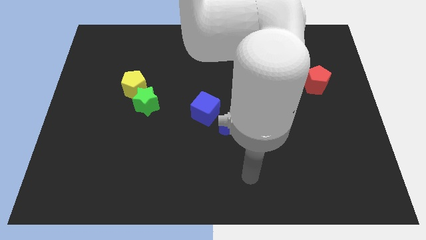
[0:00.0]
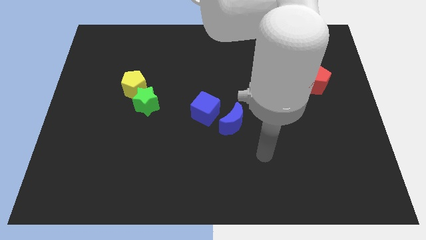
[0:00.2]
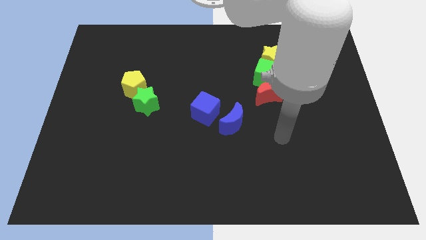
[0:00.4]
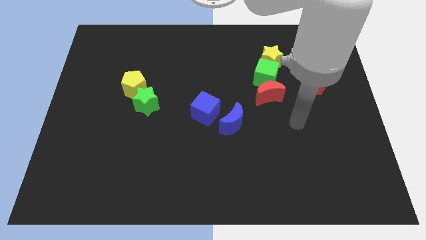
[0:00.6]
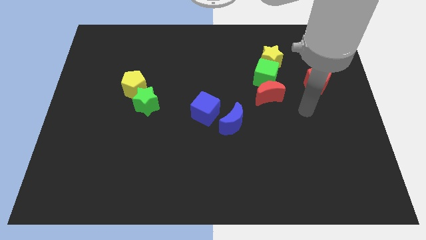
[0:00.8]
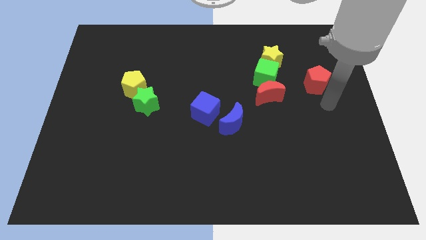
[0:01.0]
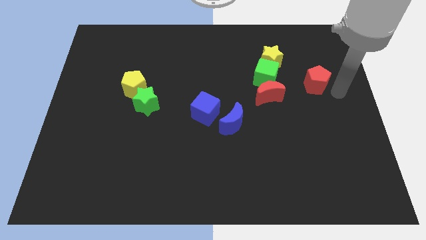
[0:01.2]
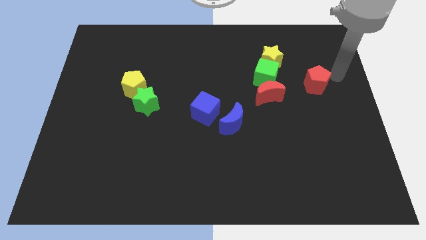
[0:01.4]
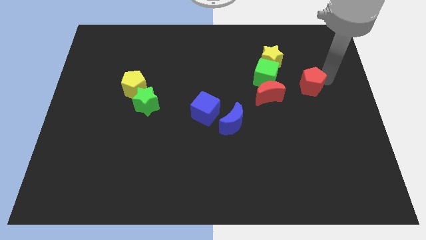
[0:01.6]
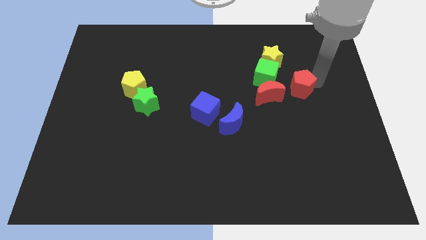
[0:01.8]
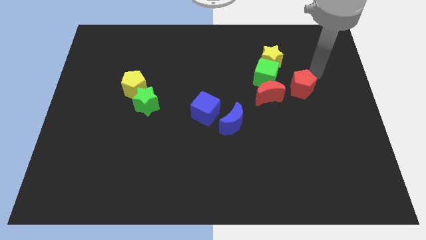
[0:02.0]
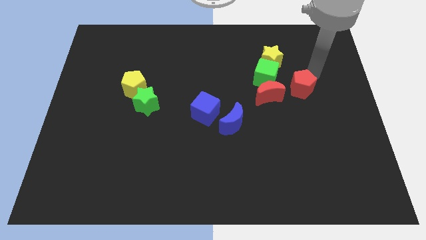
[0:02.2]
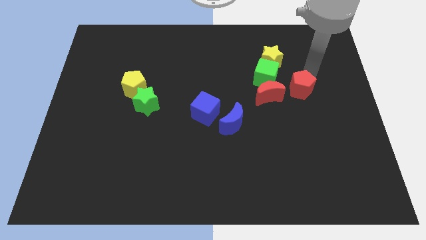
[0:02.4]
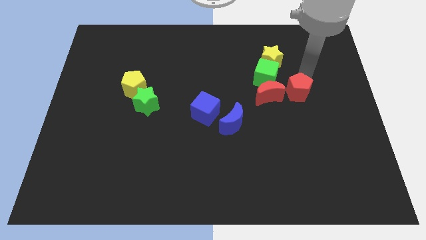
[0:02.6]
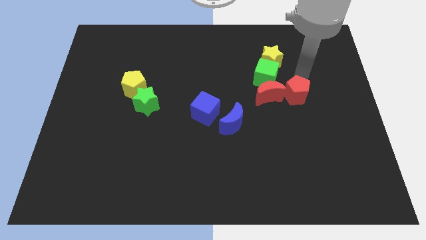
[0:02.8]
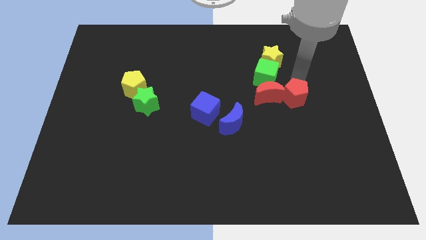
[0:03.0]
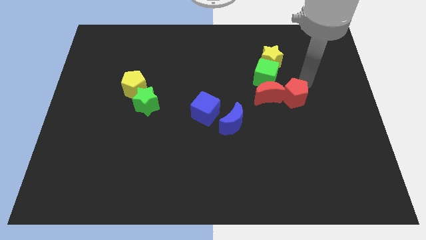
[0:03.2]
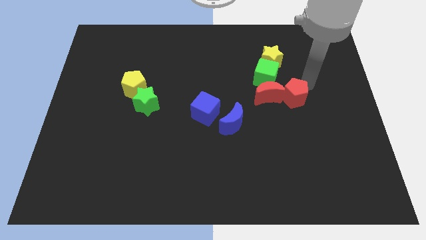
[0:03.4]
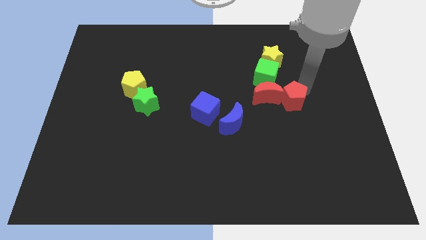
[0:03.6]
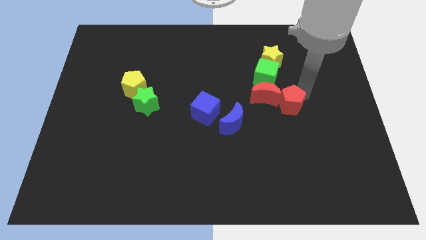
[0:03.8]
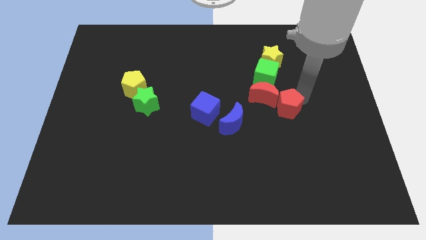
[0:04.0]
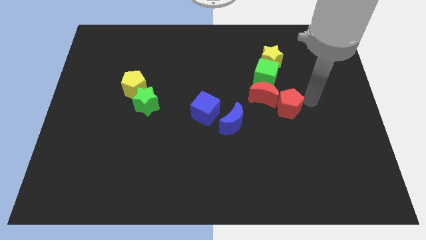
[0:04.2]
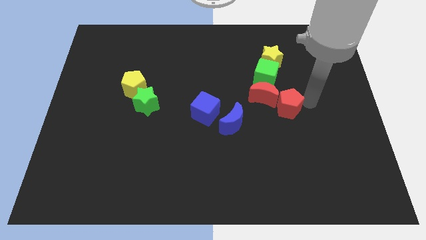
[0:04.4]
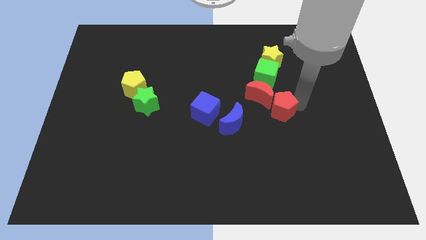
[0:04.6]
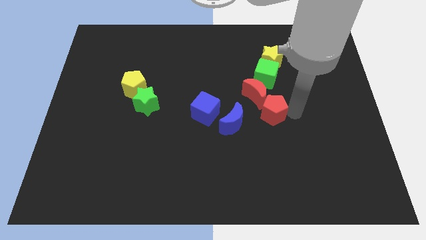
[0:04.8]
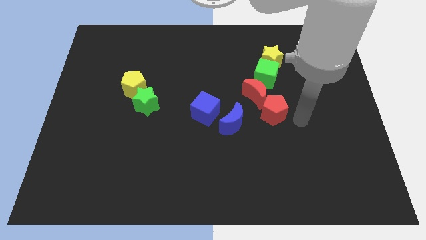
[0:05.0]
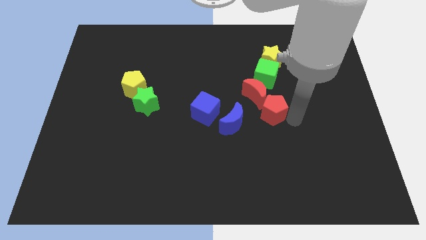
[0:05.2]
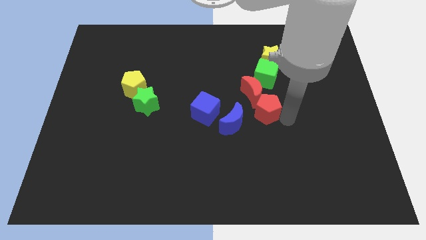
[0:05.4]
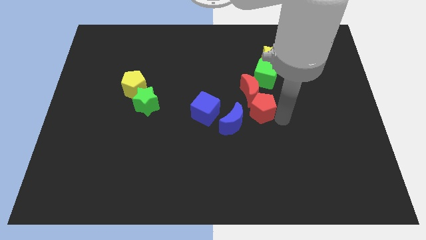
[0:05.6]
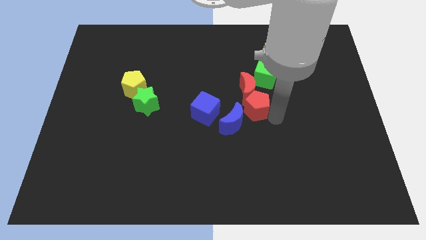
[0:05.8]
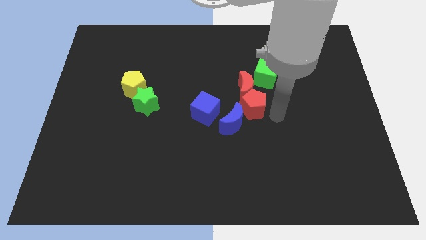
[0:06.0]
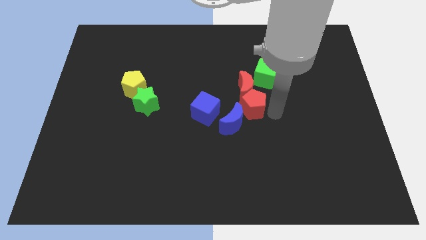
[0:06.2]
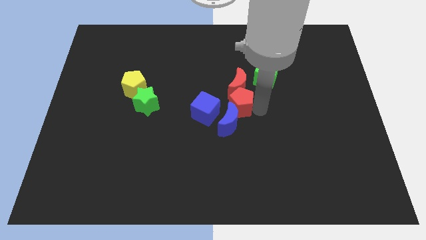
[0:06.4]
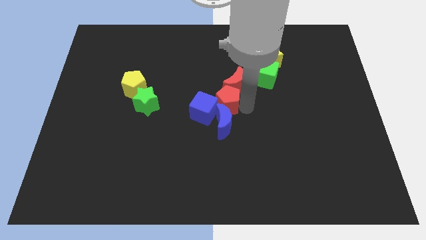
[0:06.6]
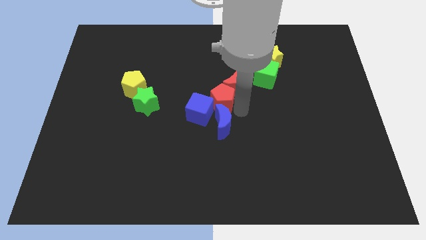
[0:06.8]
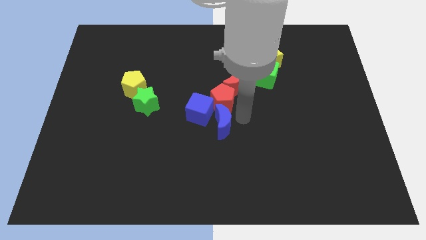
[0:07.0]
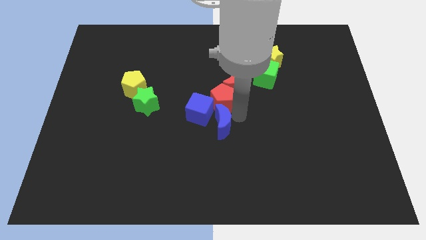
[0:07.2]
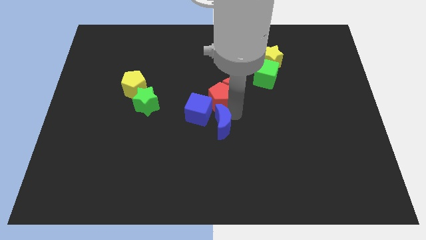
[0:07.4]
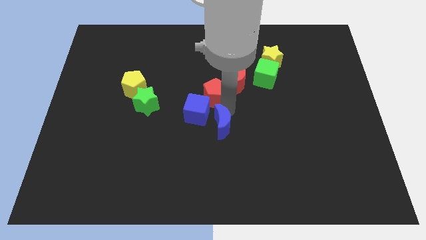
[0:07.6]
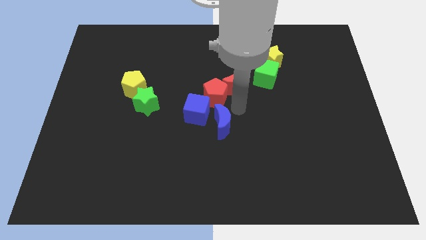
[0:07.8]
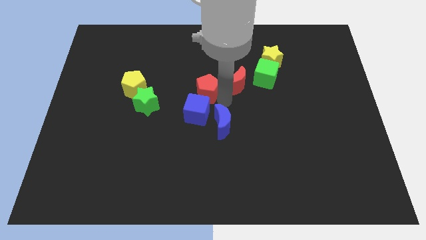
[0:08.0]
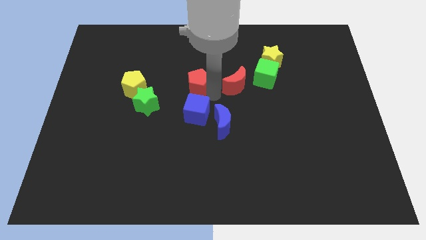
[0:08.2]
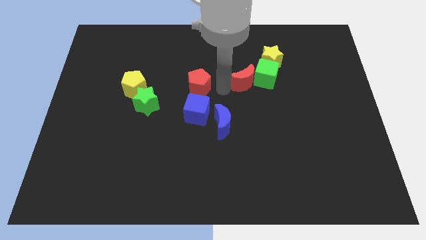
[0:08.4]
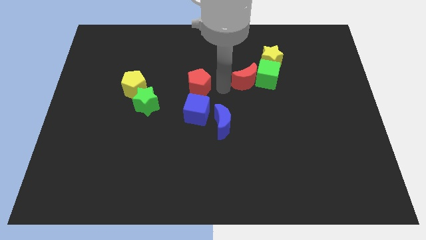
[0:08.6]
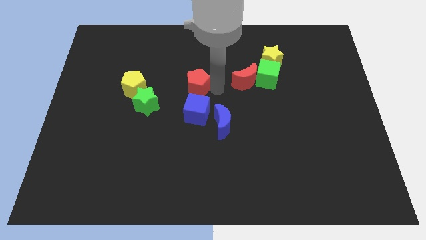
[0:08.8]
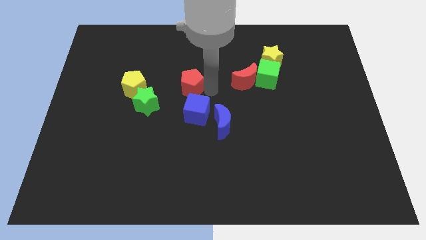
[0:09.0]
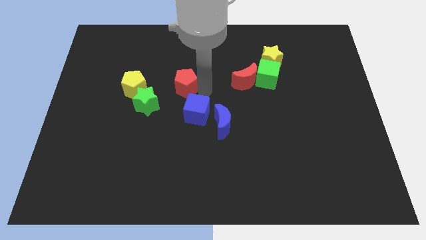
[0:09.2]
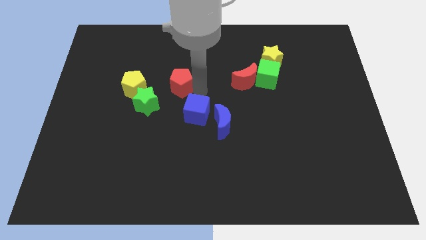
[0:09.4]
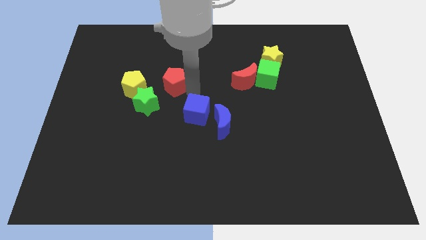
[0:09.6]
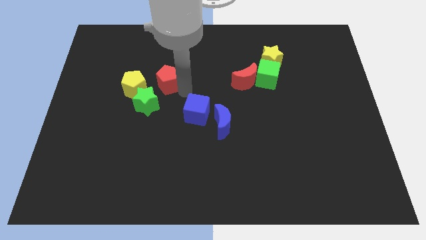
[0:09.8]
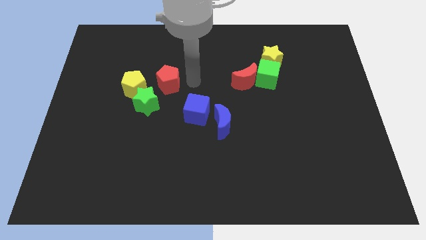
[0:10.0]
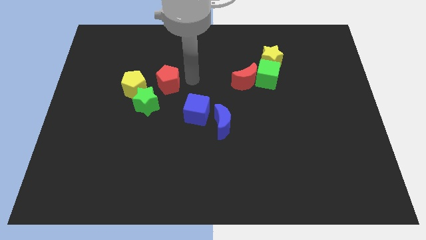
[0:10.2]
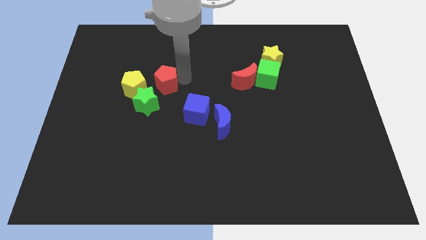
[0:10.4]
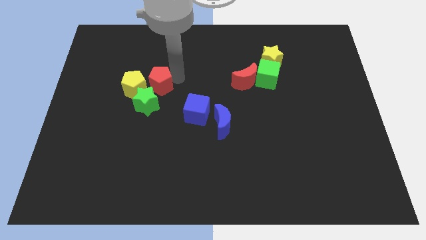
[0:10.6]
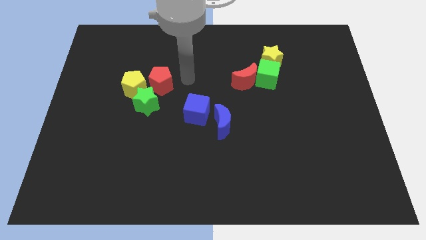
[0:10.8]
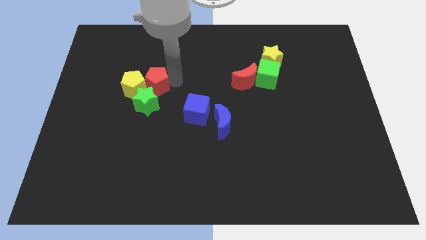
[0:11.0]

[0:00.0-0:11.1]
move the red pentagon next to the yellow pentagon

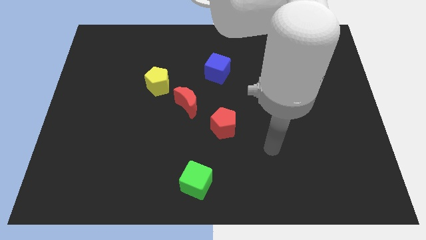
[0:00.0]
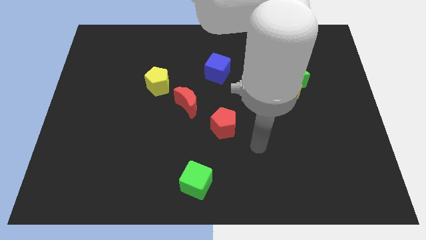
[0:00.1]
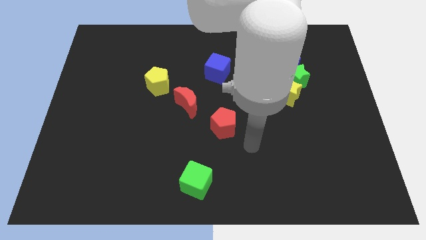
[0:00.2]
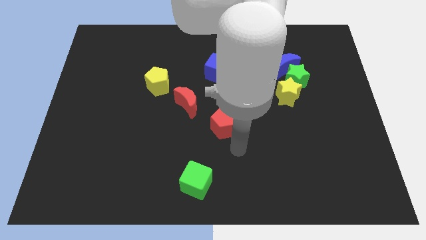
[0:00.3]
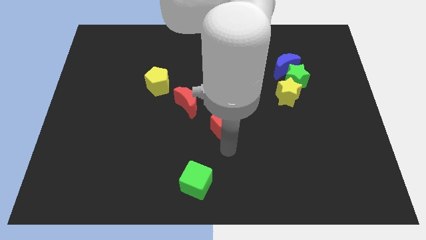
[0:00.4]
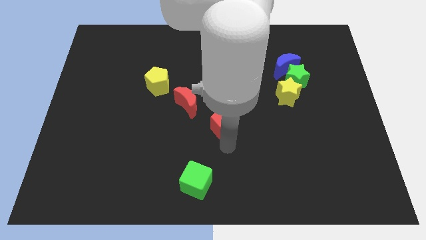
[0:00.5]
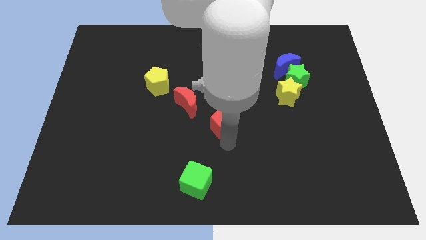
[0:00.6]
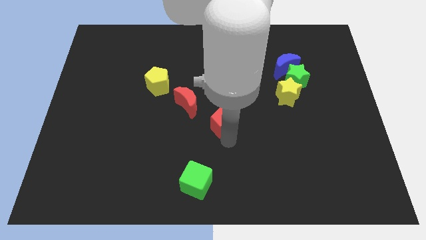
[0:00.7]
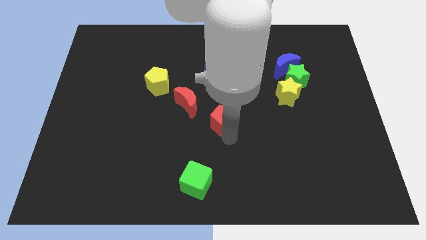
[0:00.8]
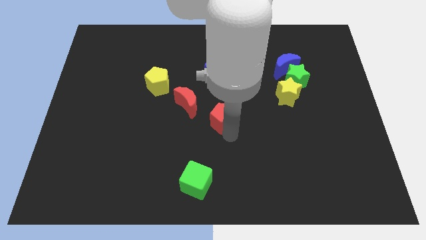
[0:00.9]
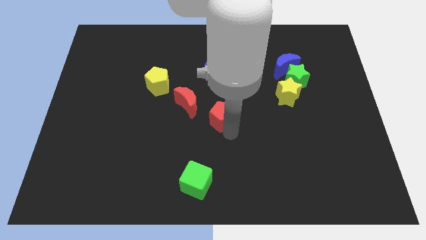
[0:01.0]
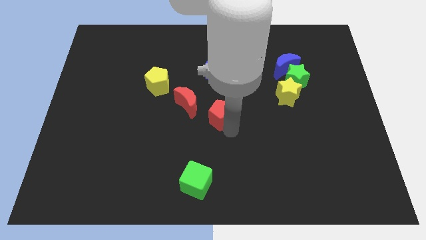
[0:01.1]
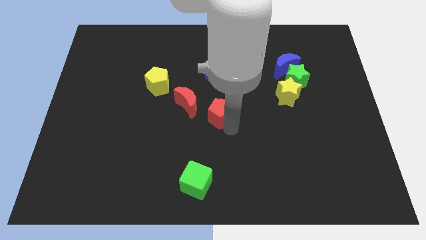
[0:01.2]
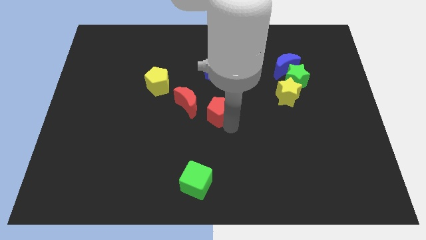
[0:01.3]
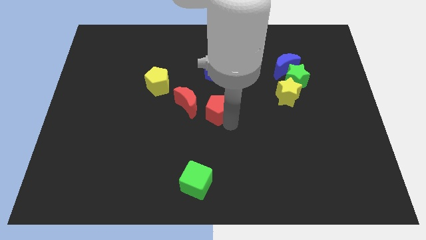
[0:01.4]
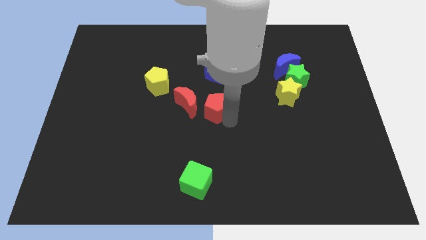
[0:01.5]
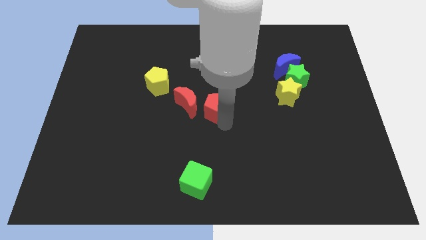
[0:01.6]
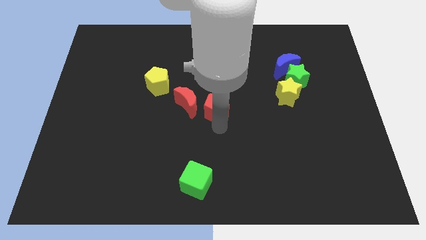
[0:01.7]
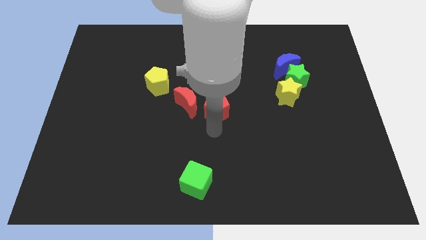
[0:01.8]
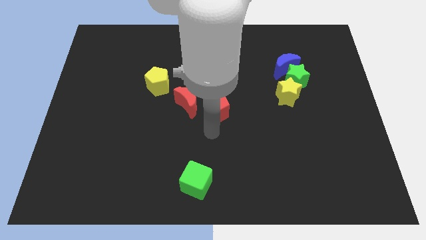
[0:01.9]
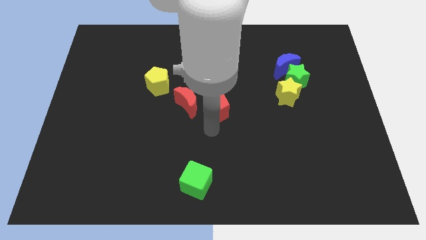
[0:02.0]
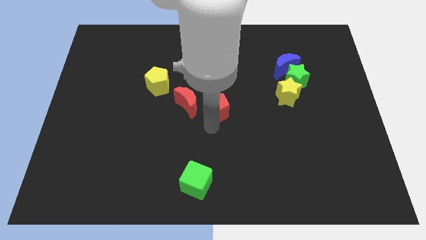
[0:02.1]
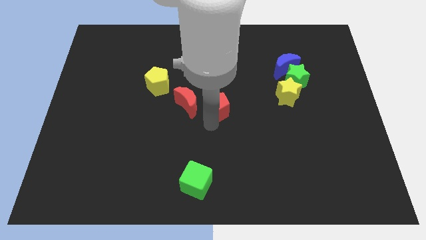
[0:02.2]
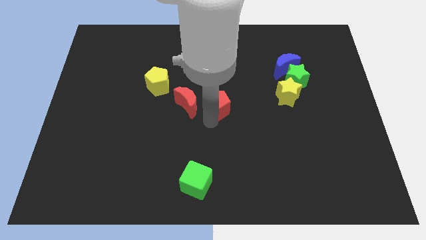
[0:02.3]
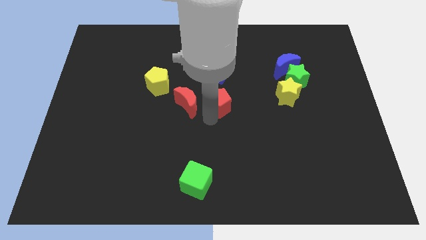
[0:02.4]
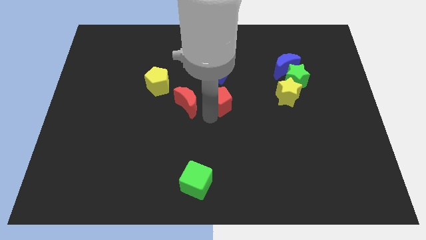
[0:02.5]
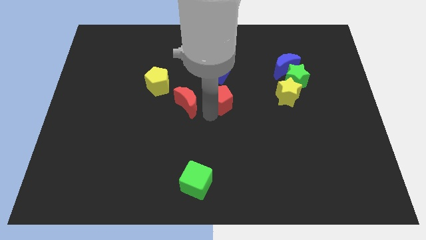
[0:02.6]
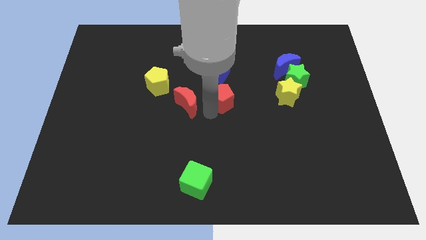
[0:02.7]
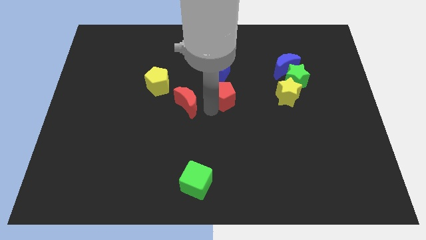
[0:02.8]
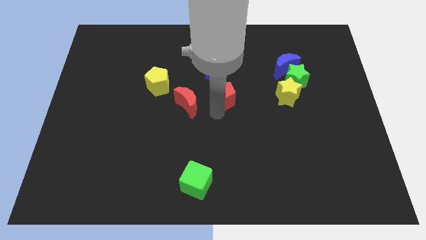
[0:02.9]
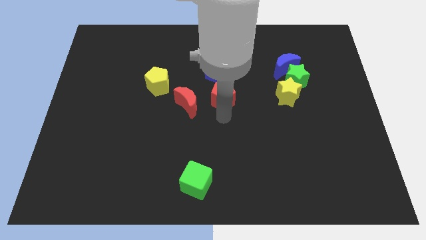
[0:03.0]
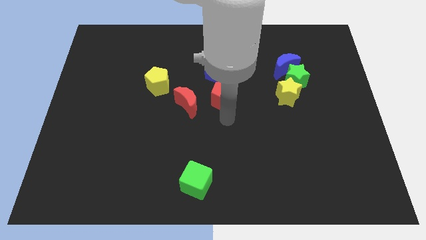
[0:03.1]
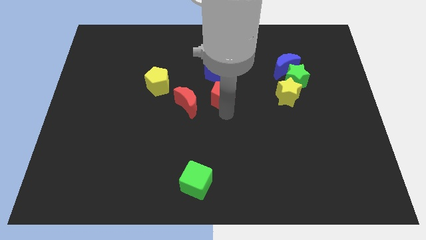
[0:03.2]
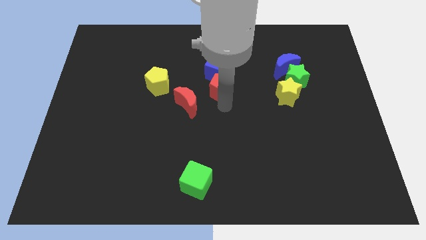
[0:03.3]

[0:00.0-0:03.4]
put the red pentagon next to the blue cube
